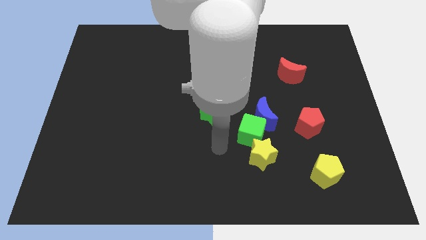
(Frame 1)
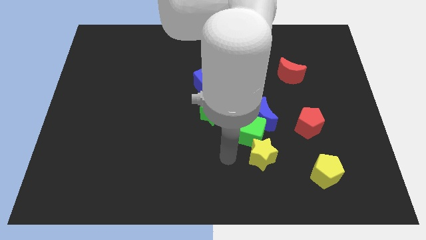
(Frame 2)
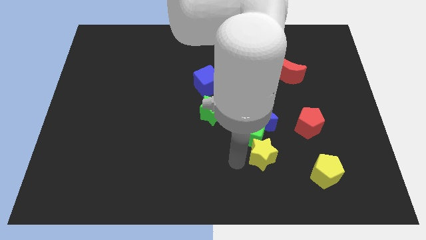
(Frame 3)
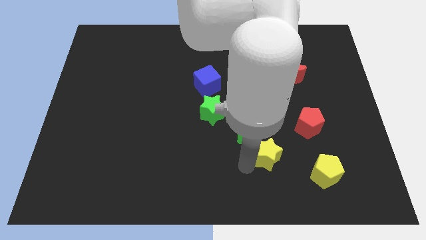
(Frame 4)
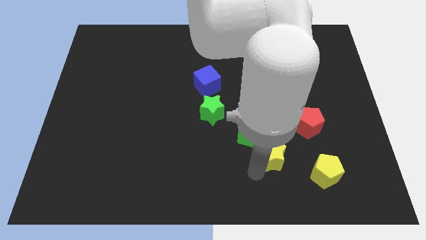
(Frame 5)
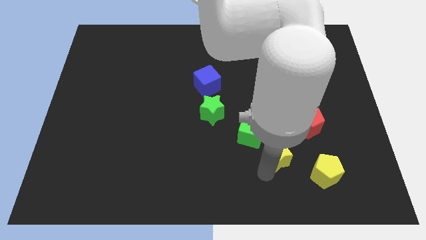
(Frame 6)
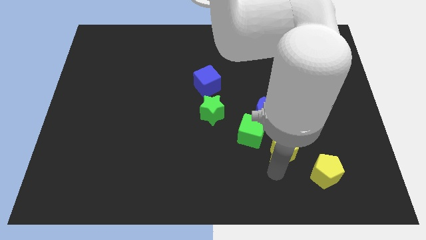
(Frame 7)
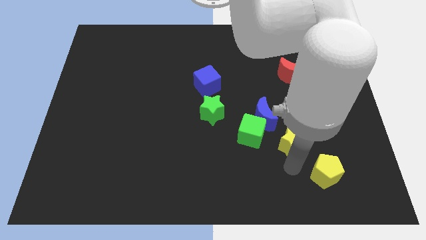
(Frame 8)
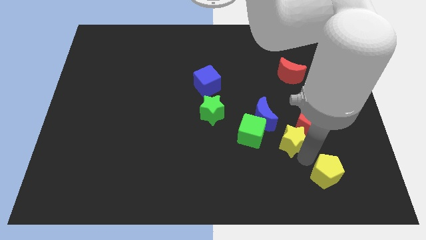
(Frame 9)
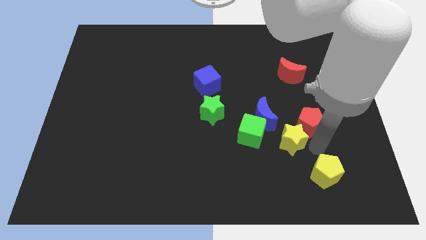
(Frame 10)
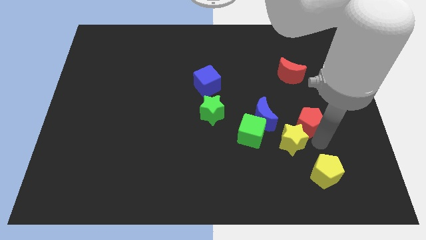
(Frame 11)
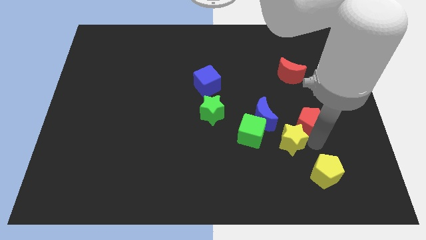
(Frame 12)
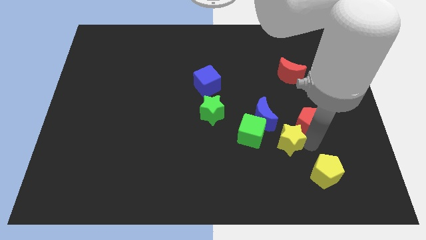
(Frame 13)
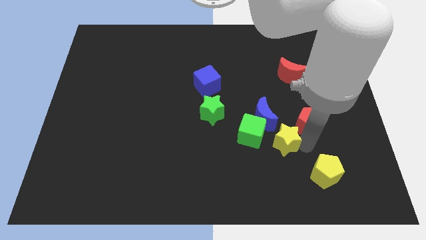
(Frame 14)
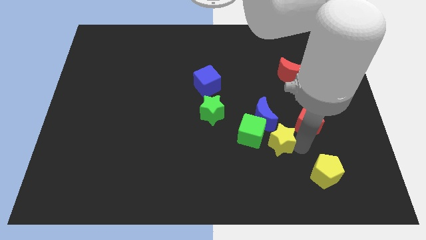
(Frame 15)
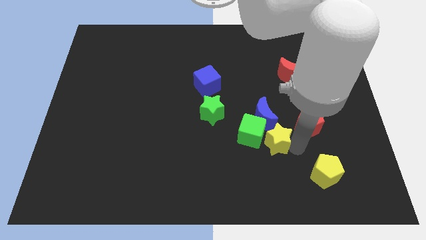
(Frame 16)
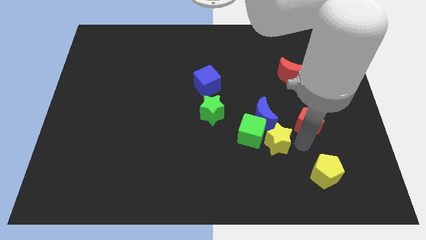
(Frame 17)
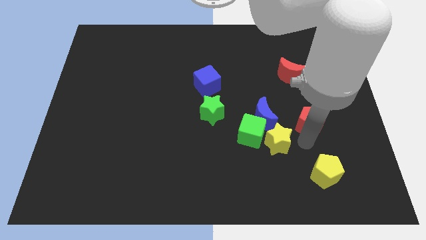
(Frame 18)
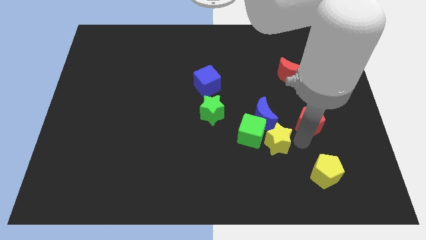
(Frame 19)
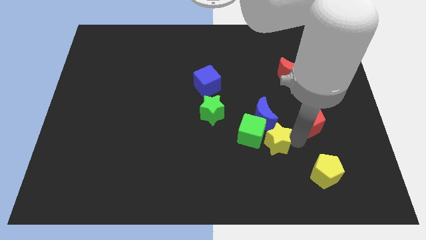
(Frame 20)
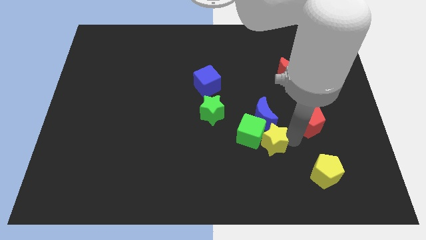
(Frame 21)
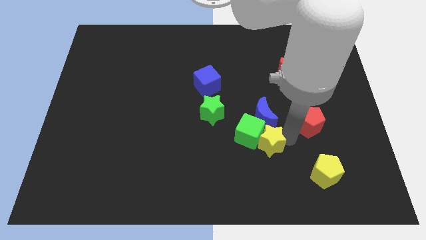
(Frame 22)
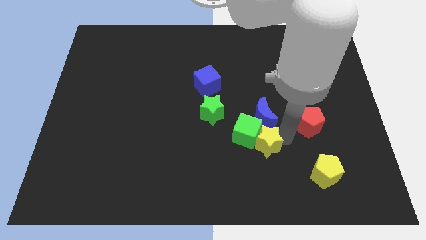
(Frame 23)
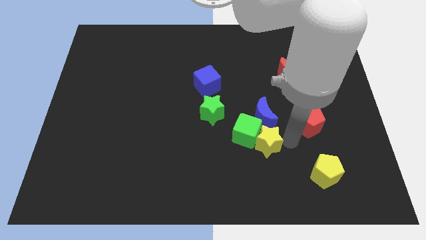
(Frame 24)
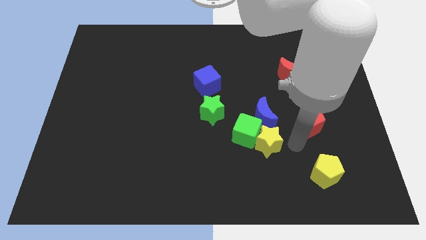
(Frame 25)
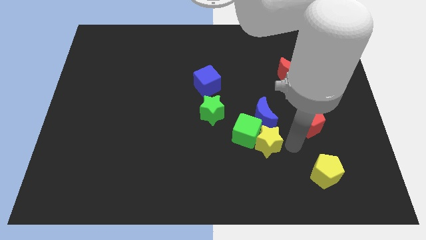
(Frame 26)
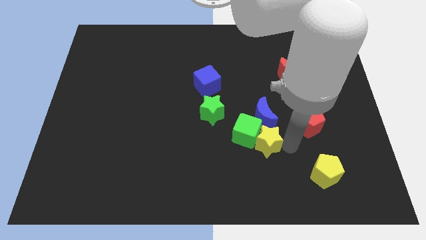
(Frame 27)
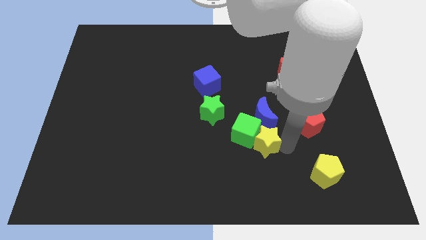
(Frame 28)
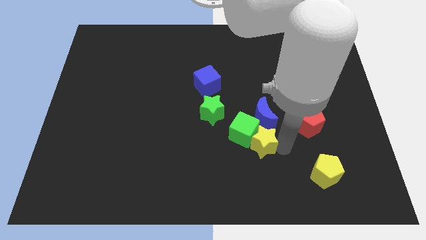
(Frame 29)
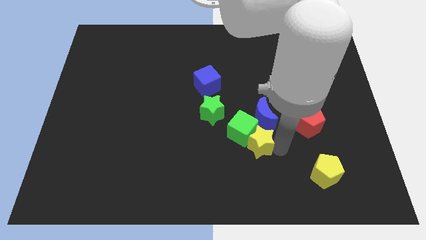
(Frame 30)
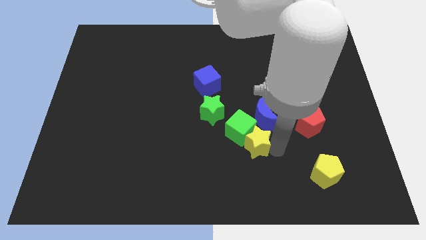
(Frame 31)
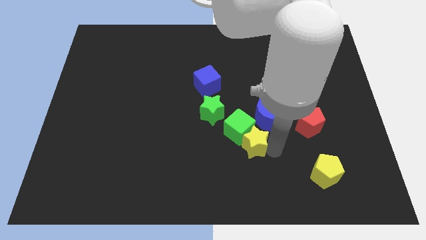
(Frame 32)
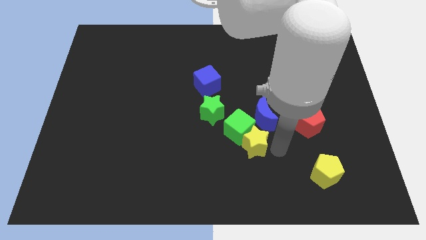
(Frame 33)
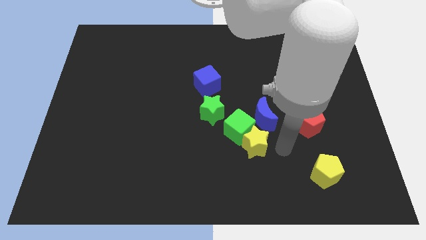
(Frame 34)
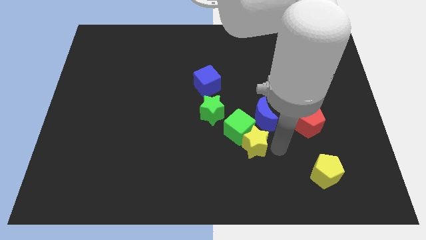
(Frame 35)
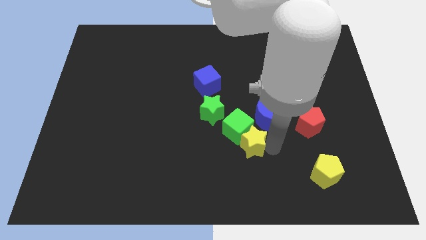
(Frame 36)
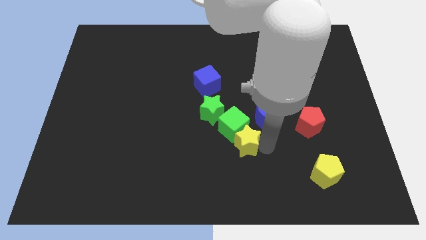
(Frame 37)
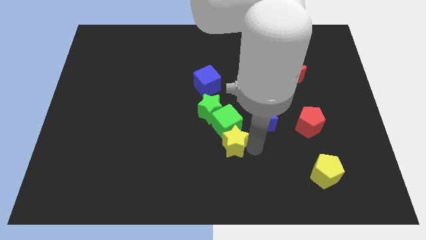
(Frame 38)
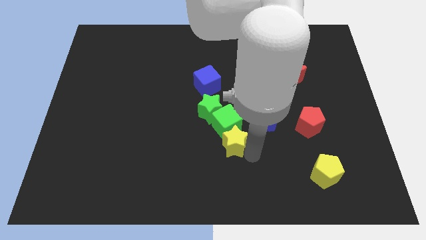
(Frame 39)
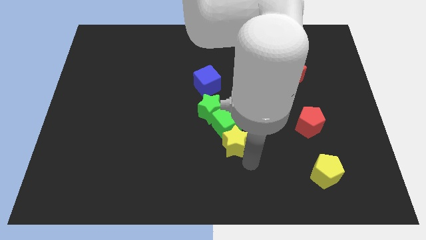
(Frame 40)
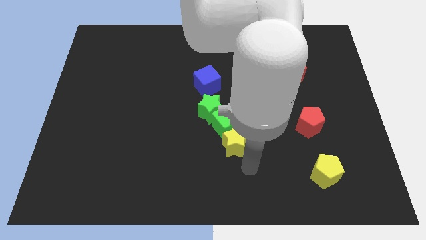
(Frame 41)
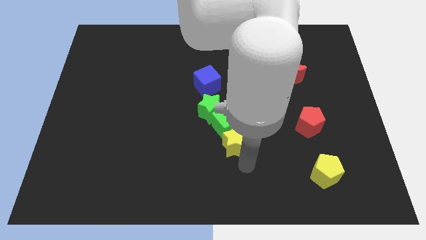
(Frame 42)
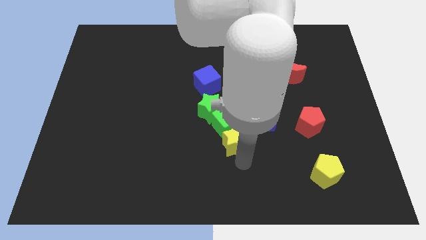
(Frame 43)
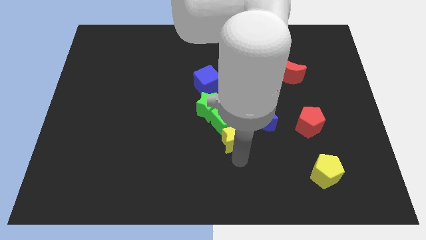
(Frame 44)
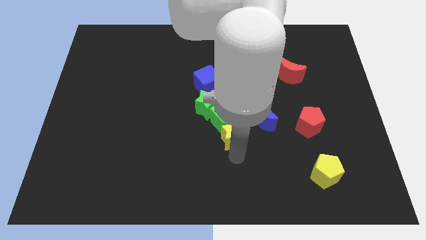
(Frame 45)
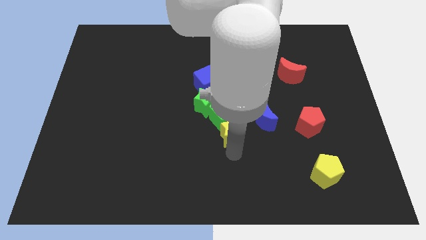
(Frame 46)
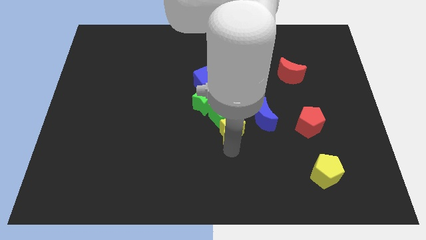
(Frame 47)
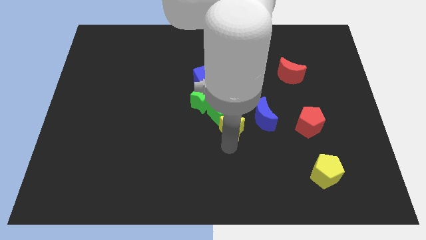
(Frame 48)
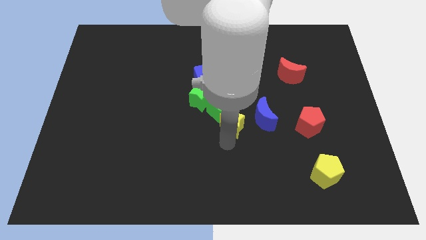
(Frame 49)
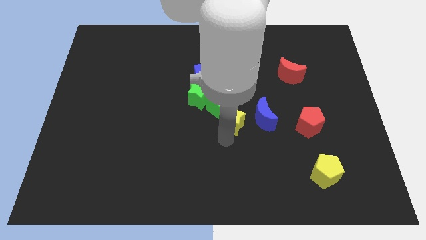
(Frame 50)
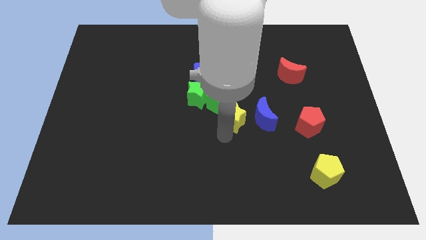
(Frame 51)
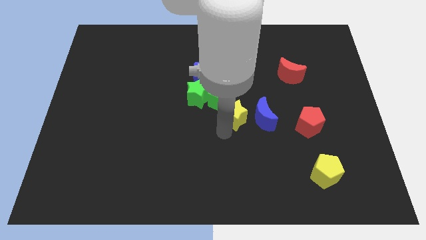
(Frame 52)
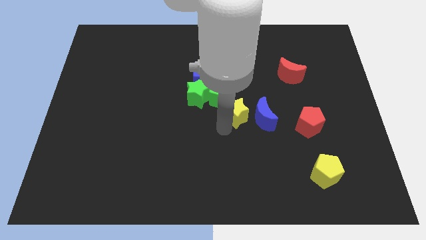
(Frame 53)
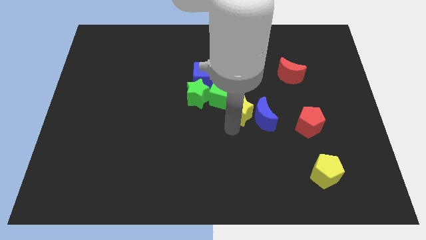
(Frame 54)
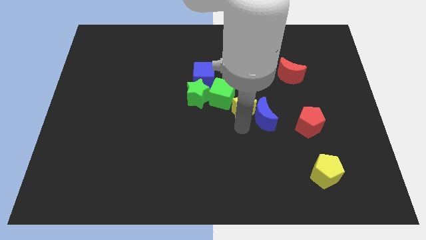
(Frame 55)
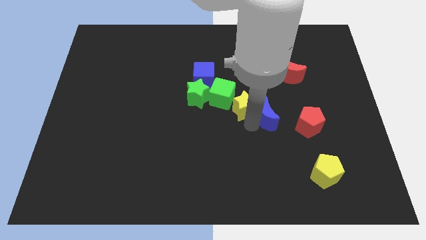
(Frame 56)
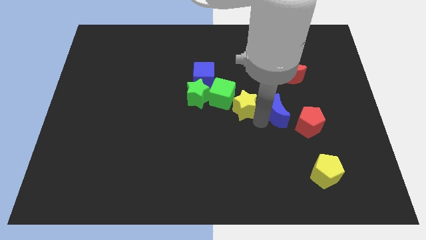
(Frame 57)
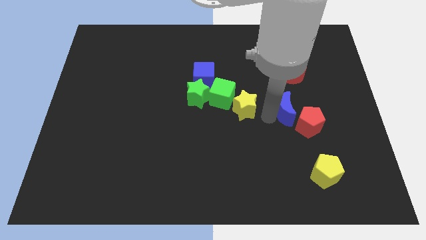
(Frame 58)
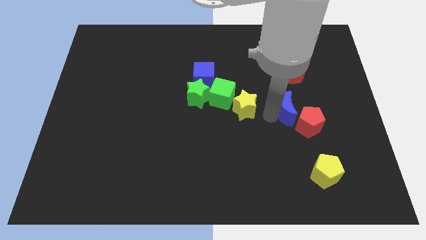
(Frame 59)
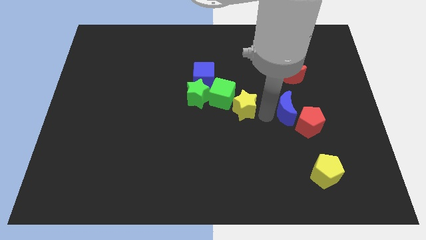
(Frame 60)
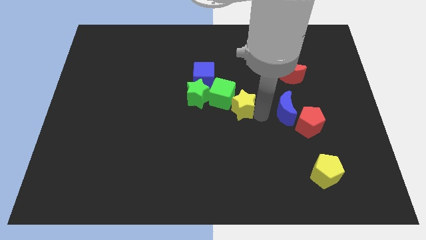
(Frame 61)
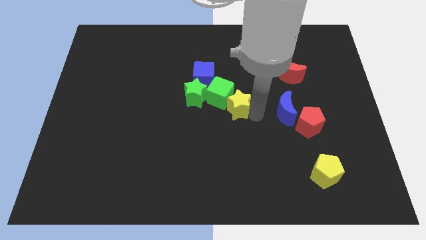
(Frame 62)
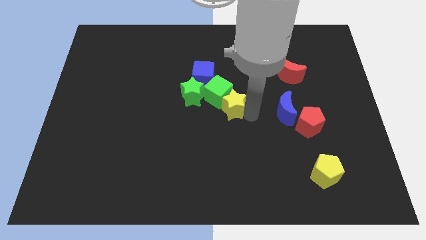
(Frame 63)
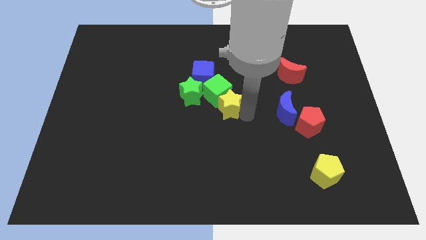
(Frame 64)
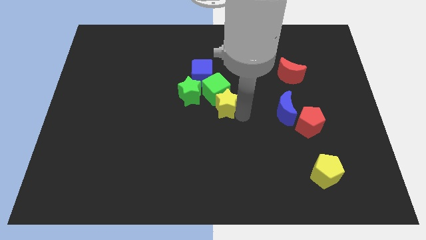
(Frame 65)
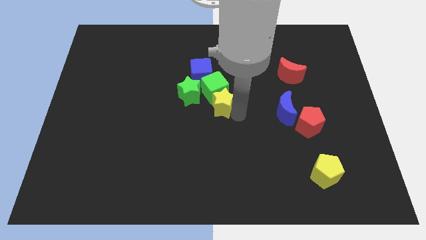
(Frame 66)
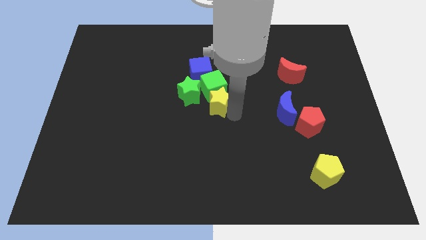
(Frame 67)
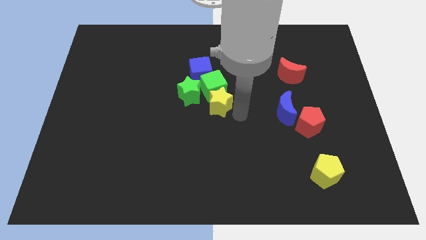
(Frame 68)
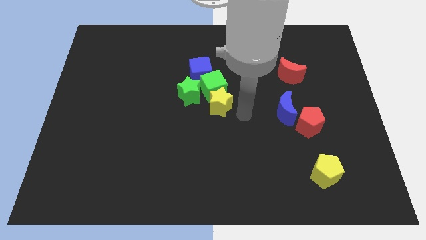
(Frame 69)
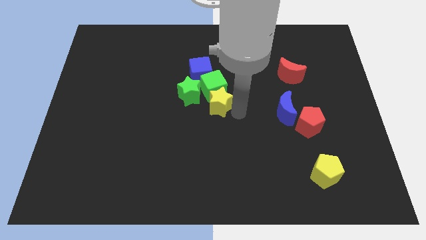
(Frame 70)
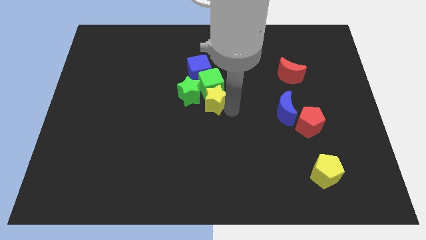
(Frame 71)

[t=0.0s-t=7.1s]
push the yellow star to the green star
